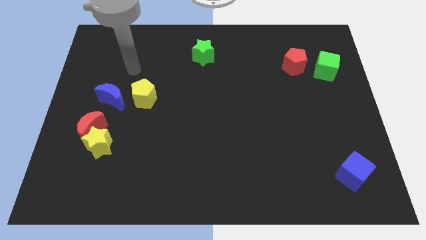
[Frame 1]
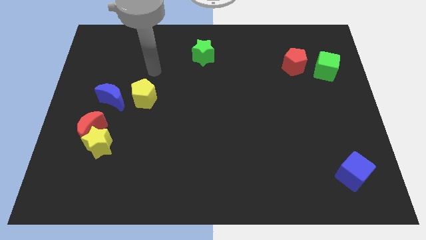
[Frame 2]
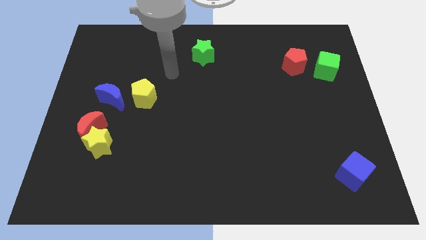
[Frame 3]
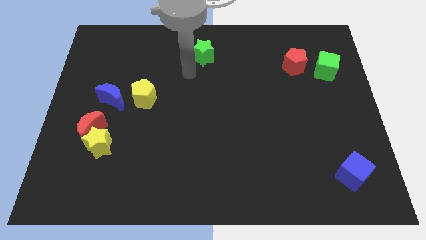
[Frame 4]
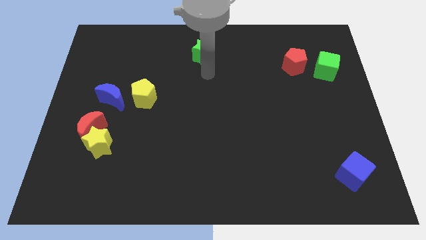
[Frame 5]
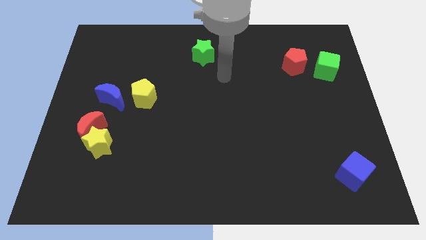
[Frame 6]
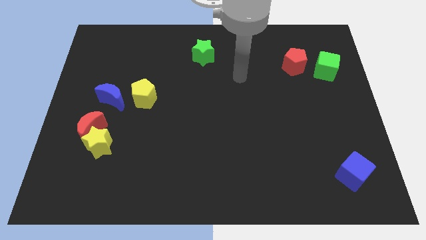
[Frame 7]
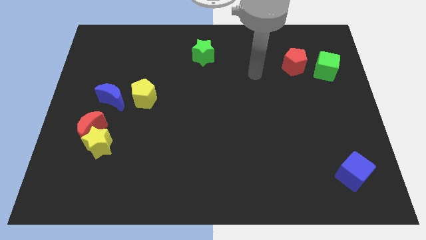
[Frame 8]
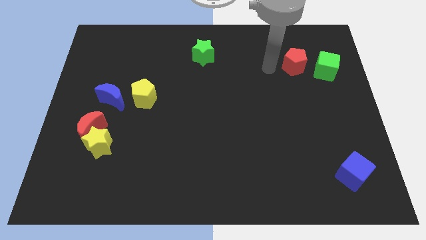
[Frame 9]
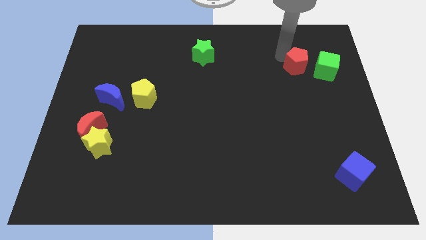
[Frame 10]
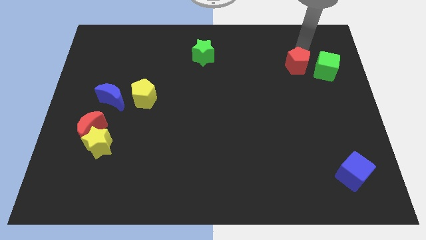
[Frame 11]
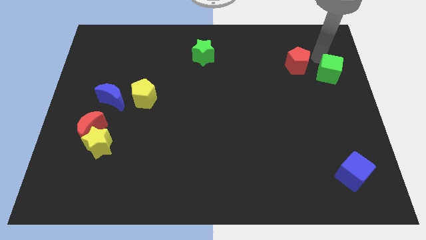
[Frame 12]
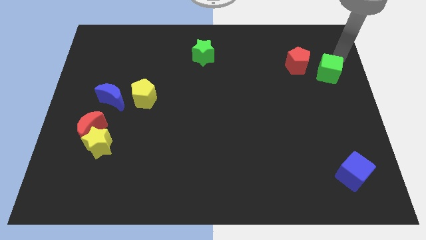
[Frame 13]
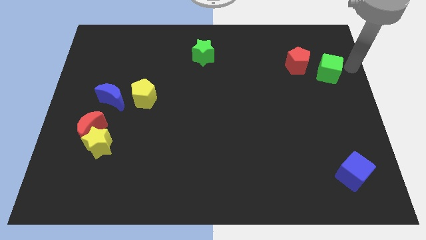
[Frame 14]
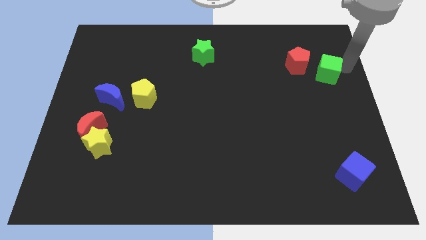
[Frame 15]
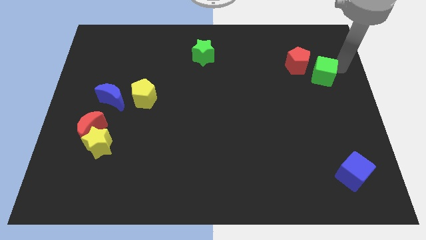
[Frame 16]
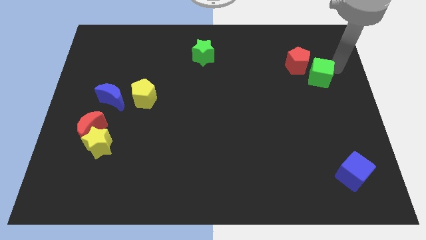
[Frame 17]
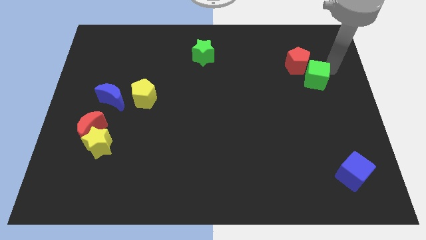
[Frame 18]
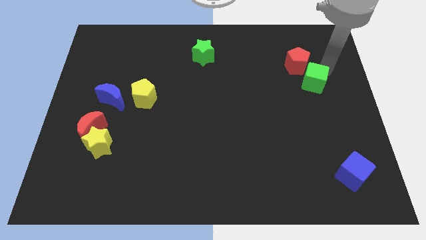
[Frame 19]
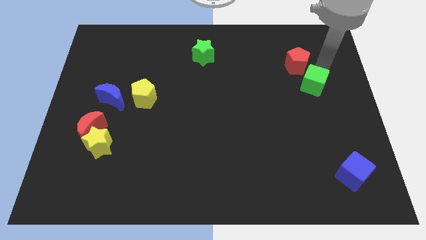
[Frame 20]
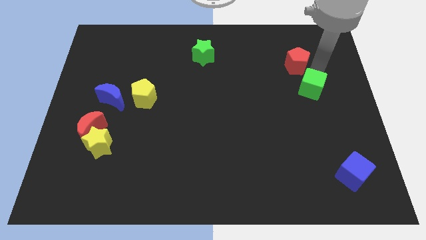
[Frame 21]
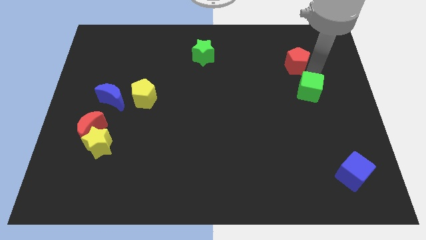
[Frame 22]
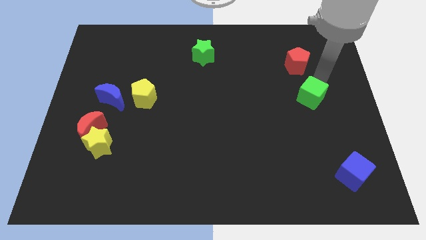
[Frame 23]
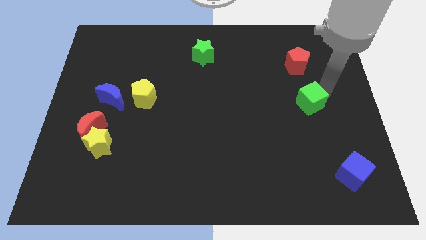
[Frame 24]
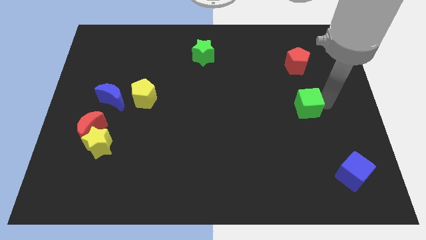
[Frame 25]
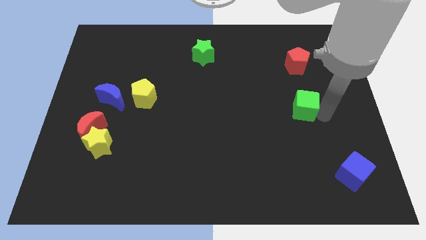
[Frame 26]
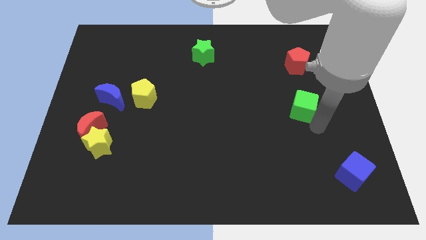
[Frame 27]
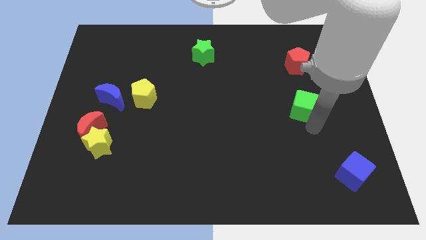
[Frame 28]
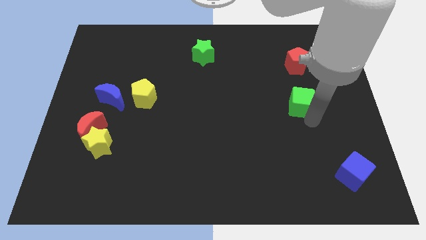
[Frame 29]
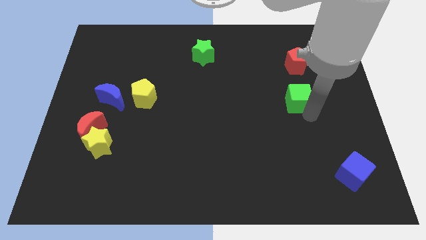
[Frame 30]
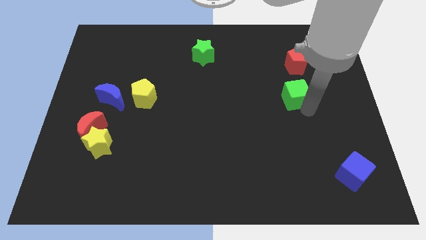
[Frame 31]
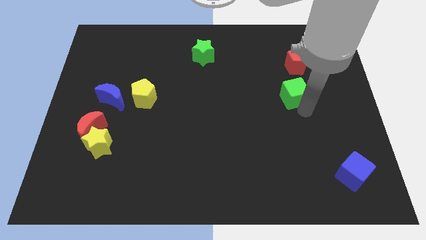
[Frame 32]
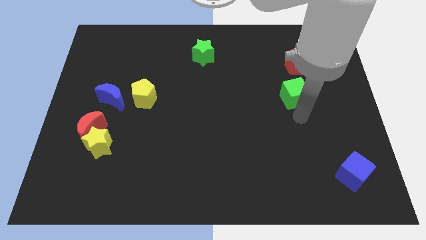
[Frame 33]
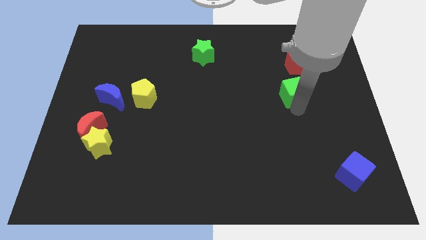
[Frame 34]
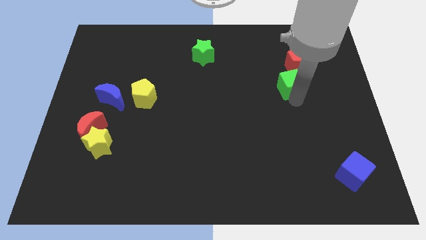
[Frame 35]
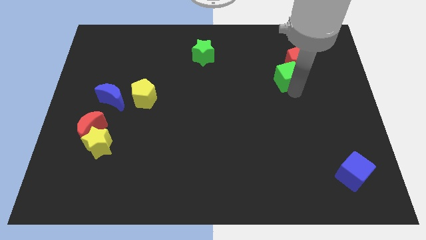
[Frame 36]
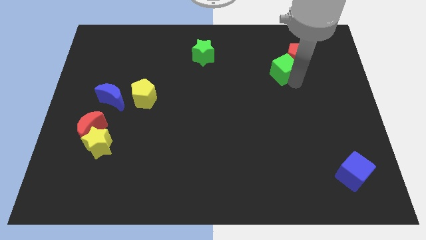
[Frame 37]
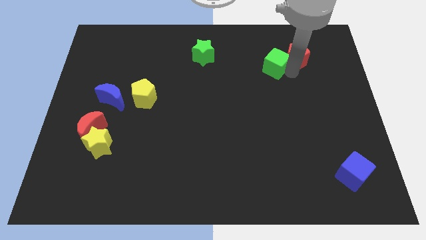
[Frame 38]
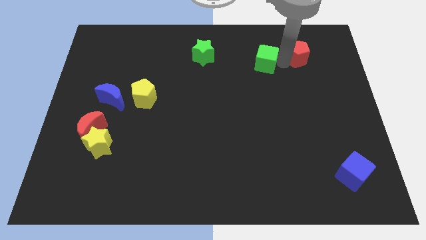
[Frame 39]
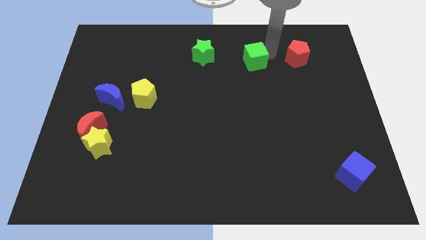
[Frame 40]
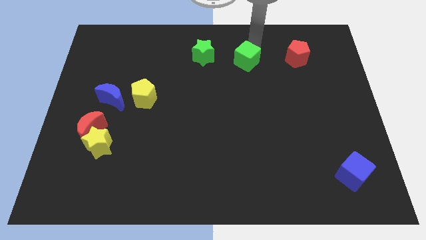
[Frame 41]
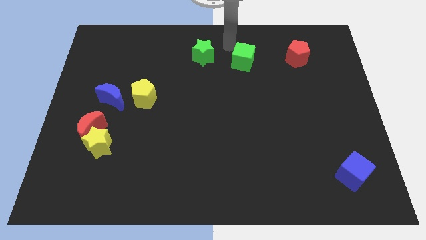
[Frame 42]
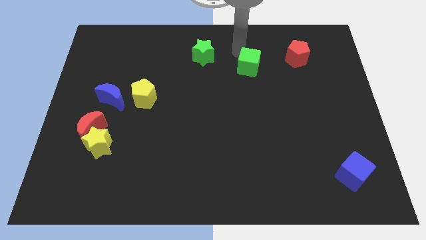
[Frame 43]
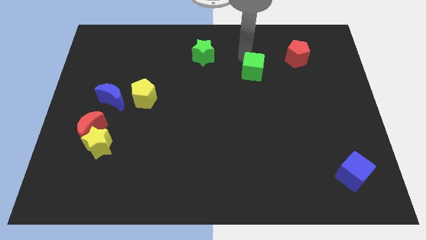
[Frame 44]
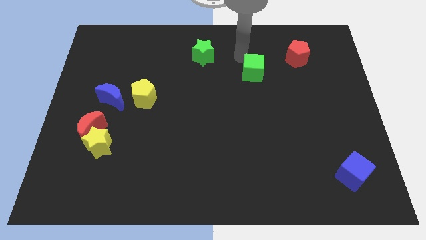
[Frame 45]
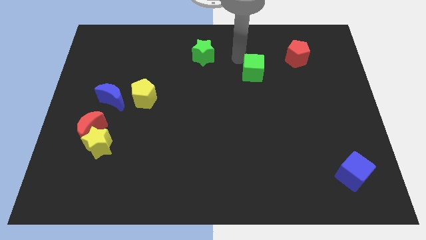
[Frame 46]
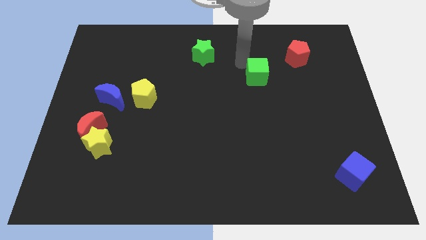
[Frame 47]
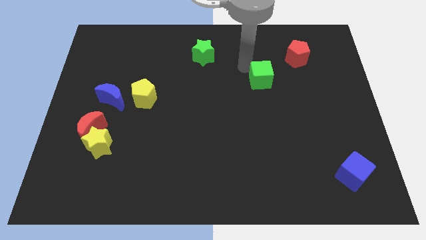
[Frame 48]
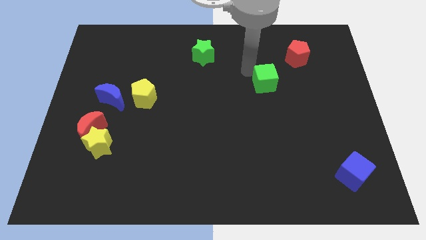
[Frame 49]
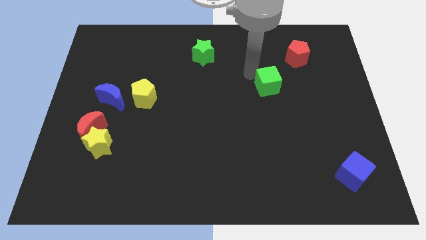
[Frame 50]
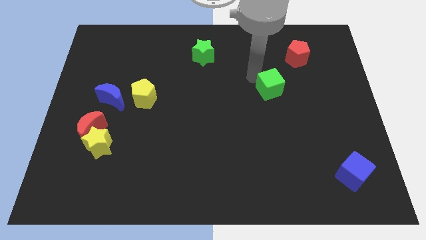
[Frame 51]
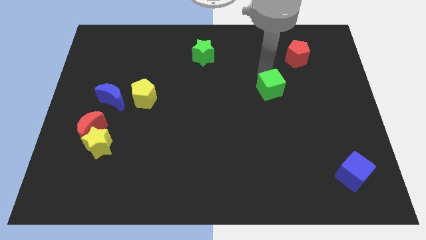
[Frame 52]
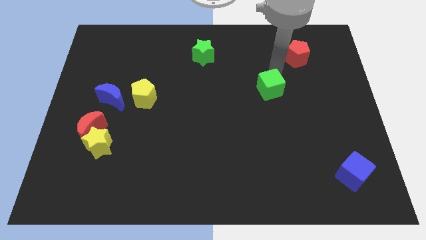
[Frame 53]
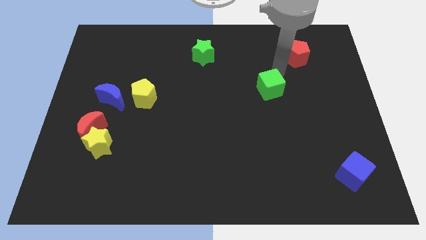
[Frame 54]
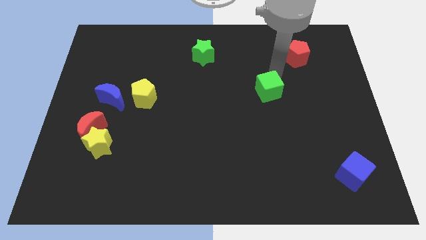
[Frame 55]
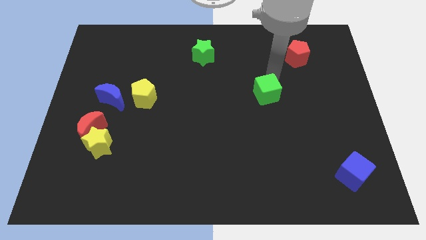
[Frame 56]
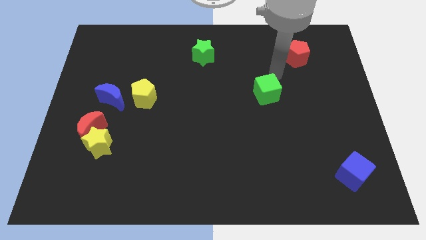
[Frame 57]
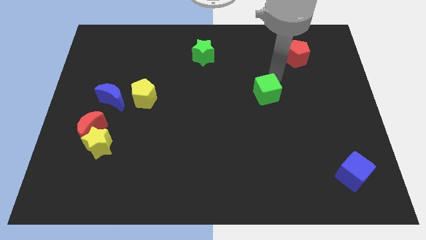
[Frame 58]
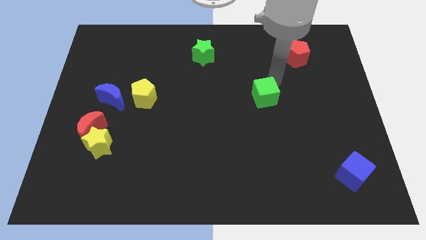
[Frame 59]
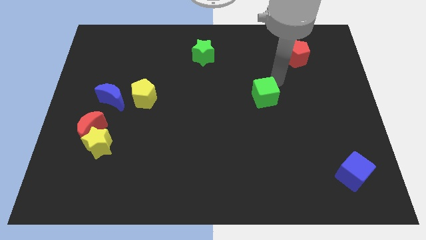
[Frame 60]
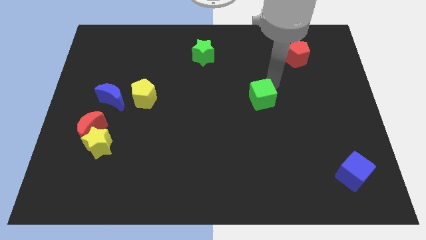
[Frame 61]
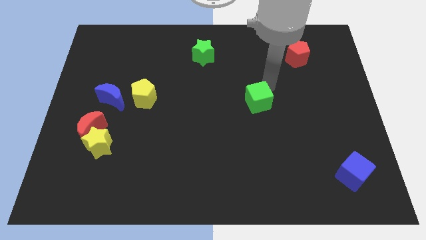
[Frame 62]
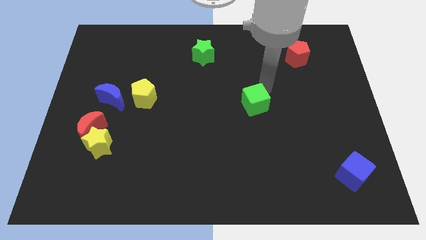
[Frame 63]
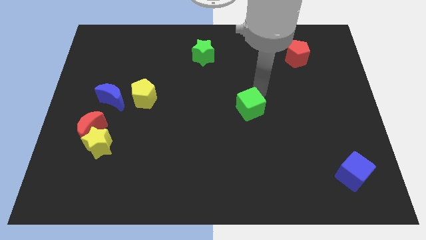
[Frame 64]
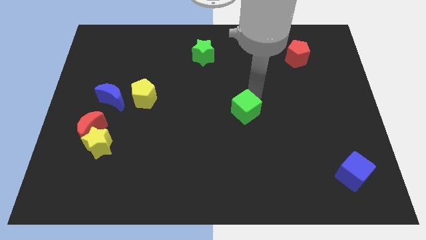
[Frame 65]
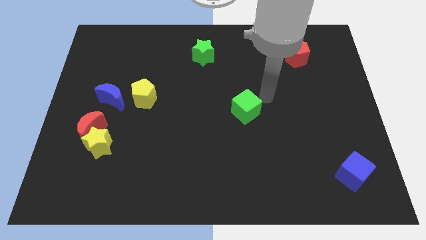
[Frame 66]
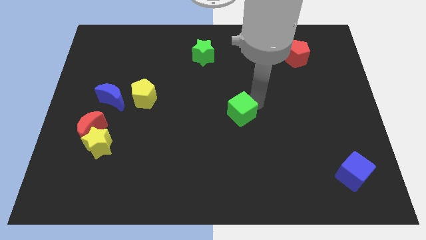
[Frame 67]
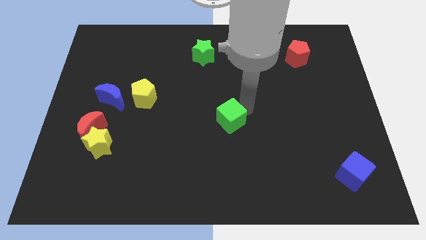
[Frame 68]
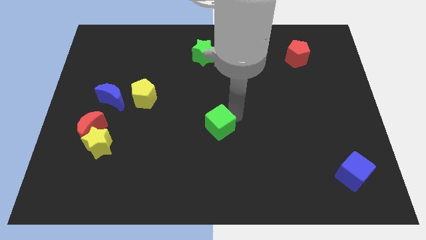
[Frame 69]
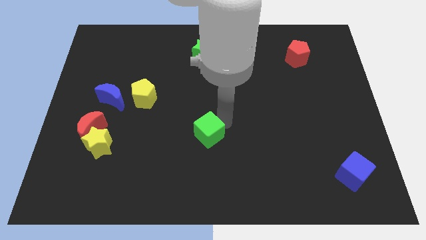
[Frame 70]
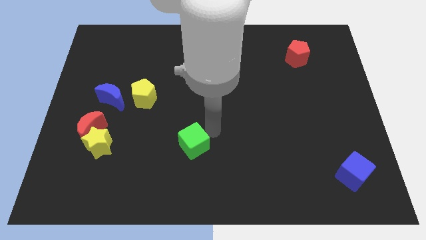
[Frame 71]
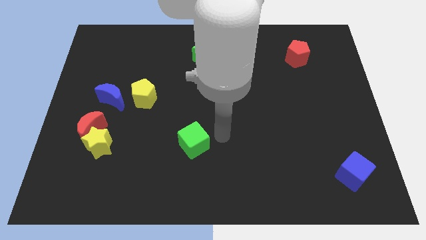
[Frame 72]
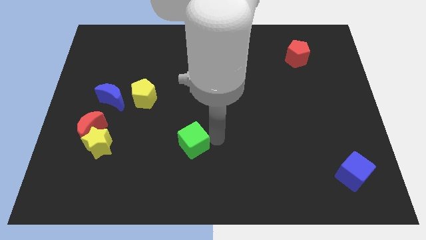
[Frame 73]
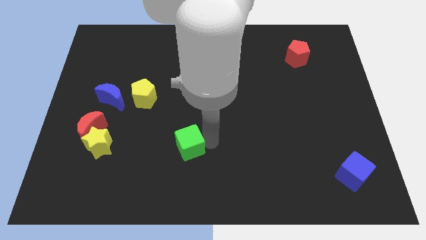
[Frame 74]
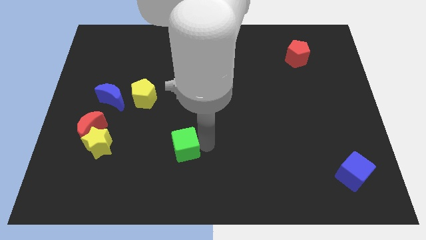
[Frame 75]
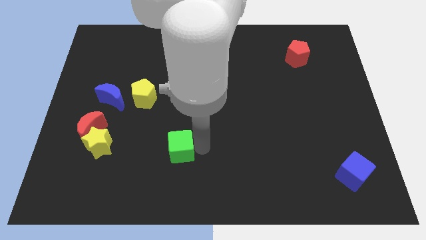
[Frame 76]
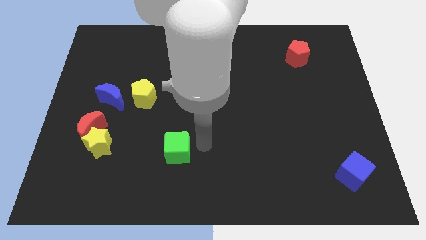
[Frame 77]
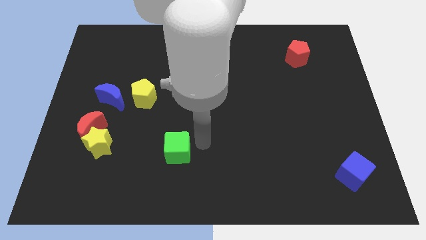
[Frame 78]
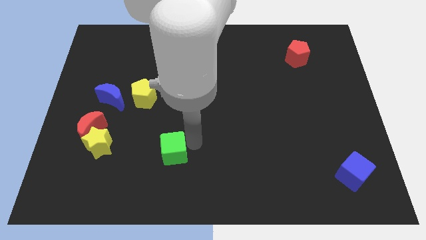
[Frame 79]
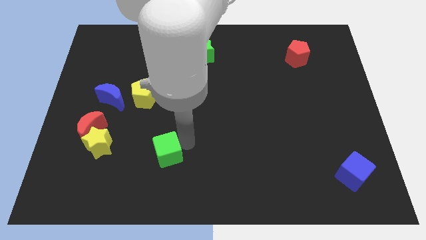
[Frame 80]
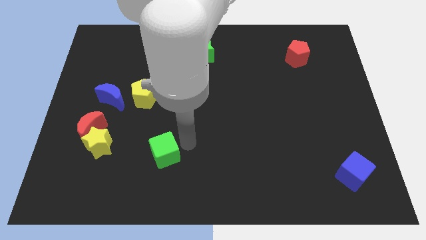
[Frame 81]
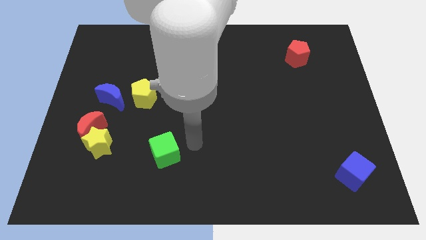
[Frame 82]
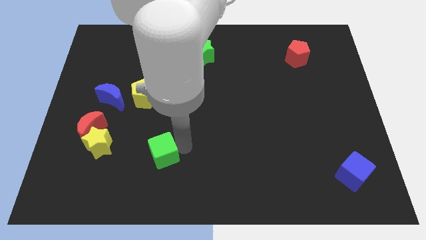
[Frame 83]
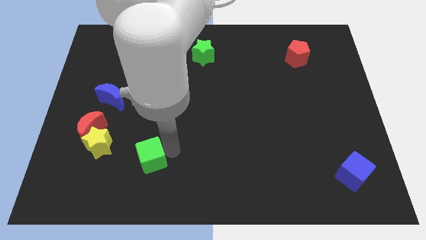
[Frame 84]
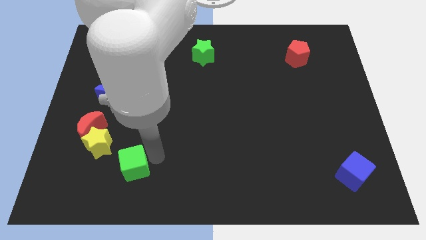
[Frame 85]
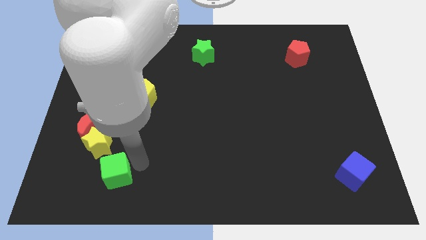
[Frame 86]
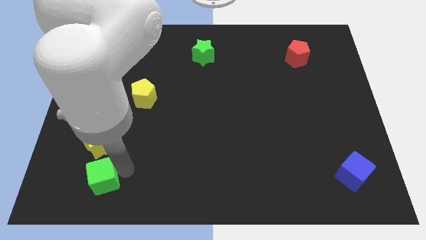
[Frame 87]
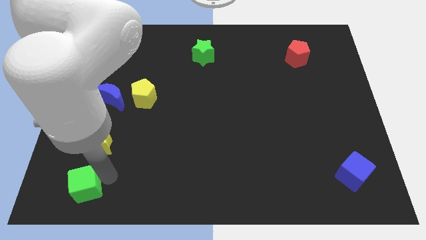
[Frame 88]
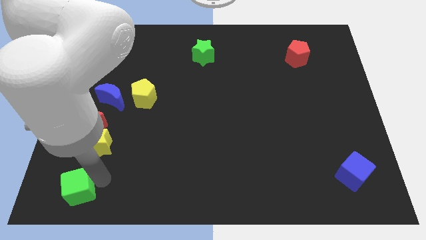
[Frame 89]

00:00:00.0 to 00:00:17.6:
move the green cube to the bottom left of the board
